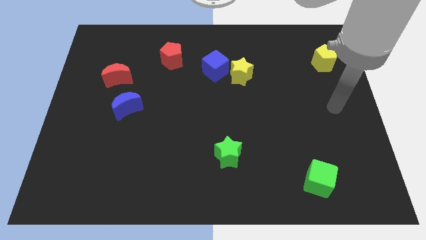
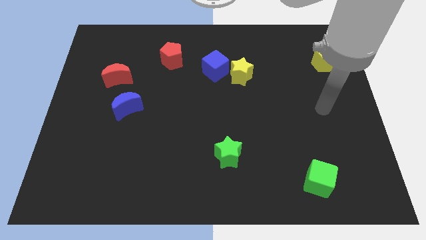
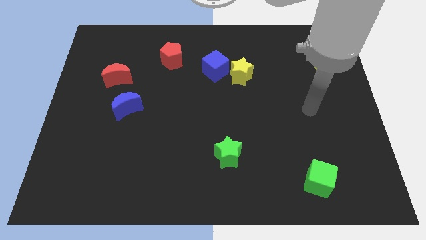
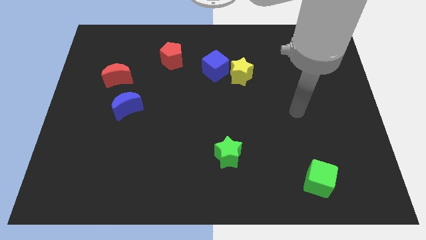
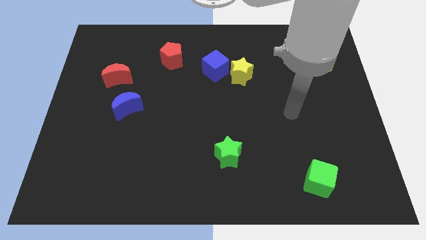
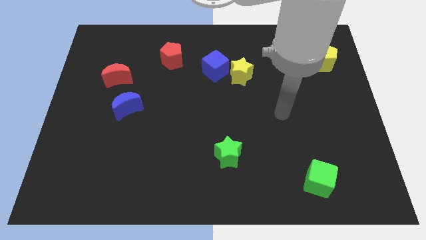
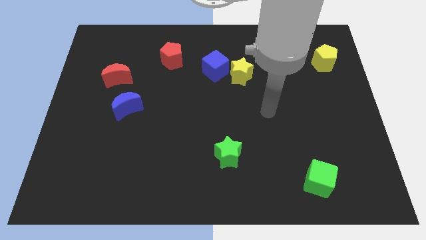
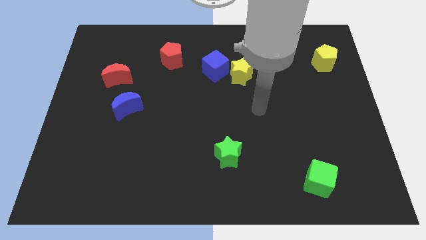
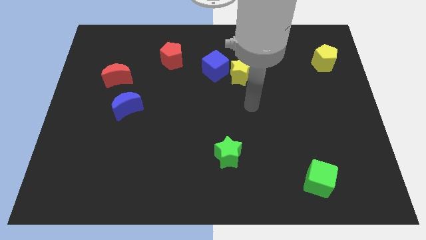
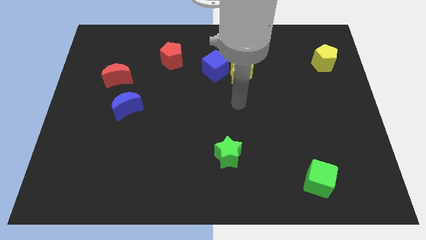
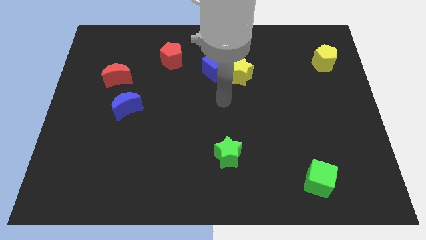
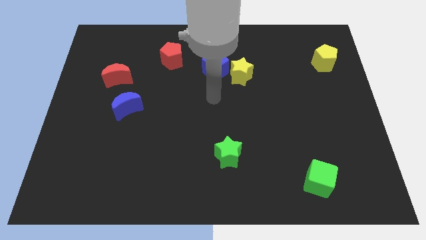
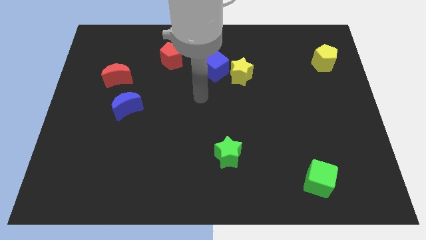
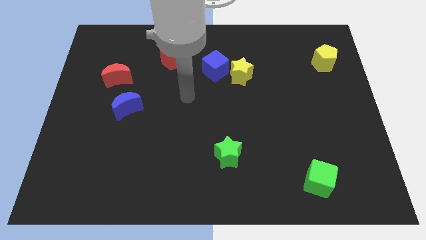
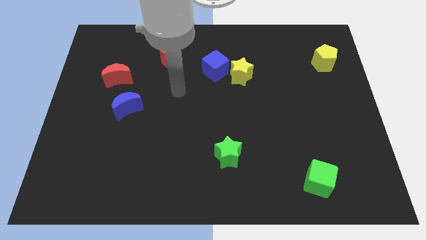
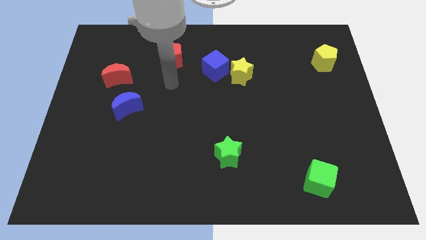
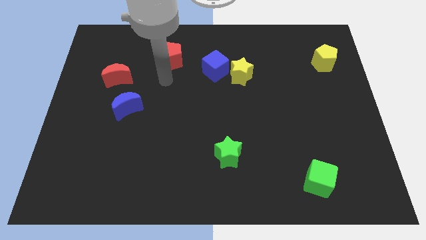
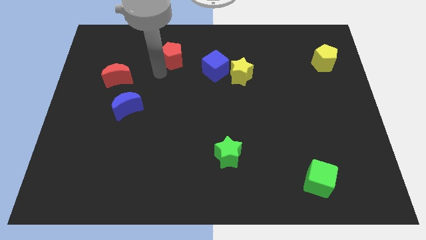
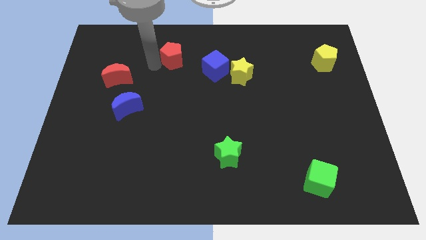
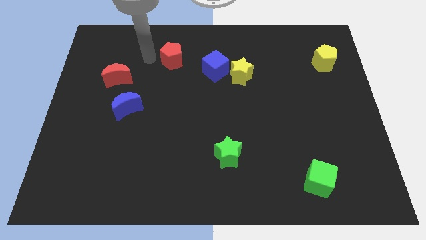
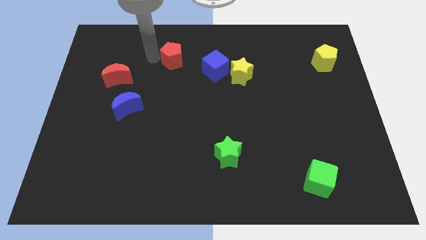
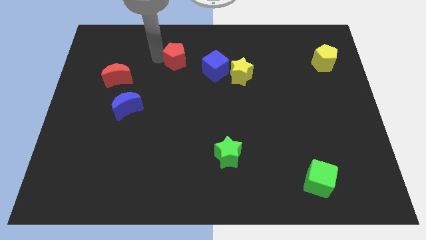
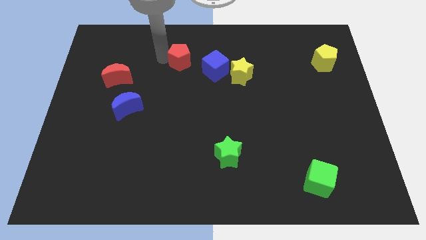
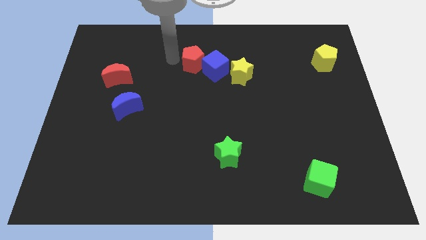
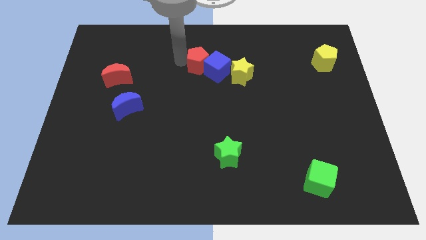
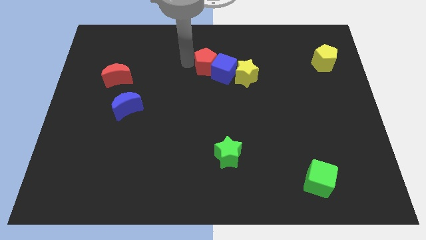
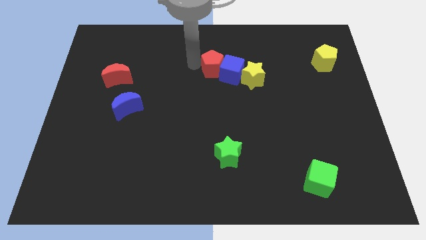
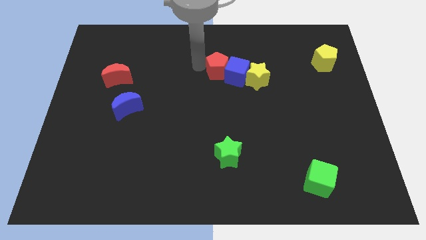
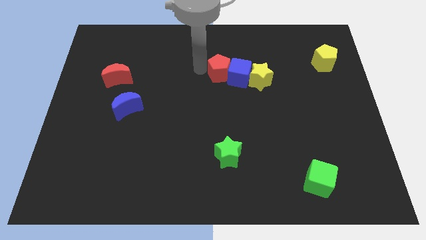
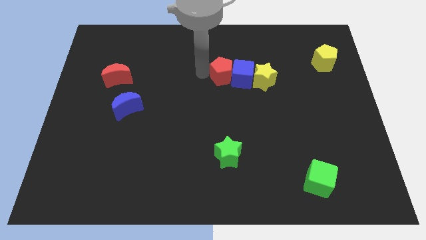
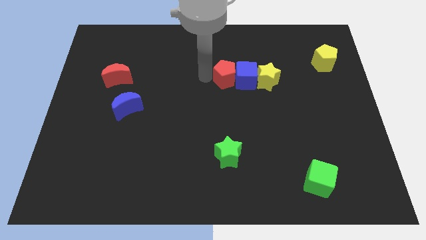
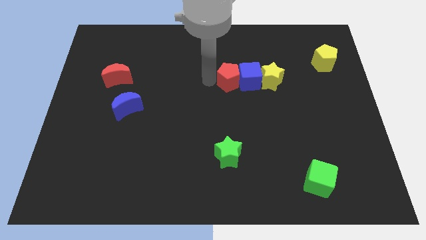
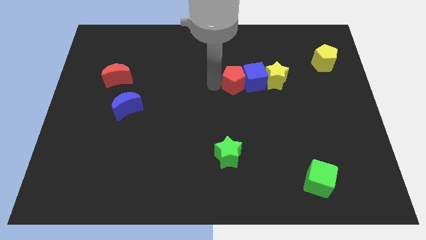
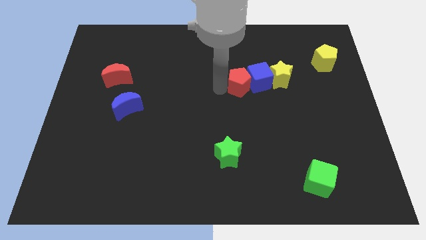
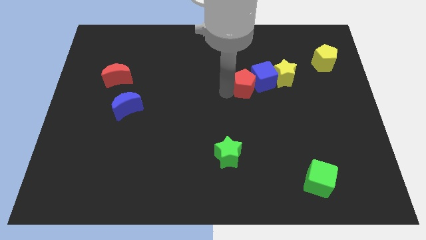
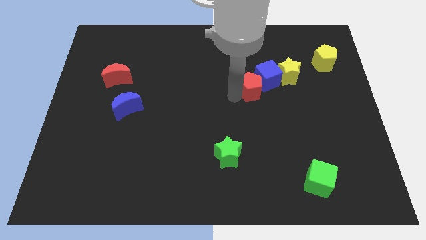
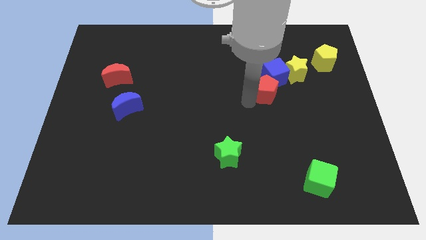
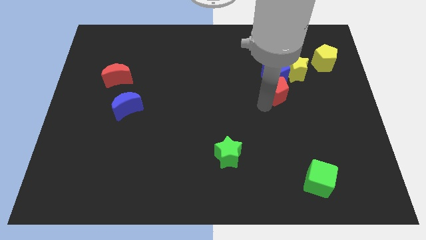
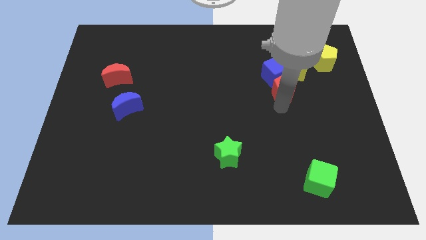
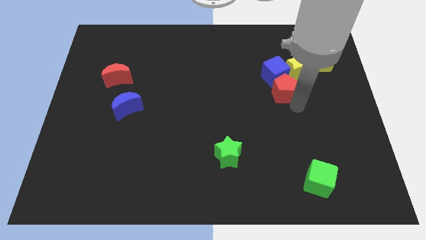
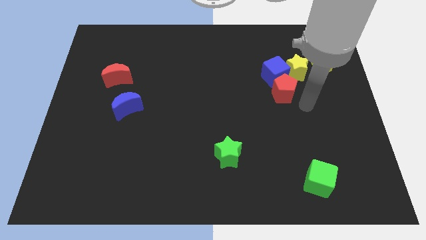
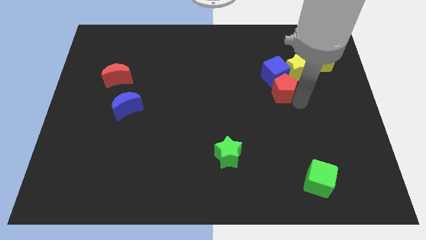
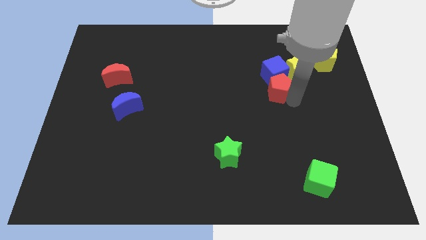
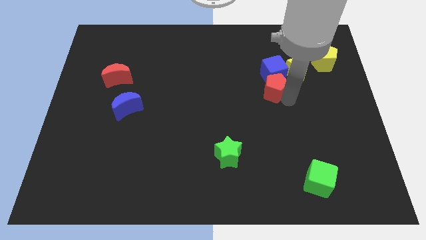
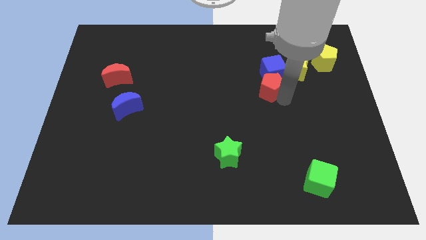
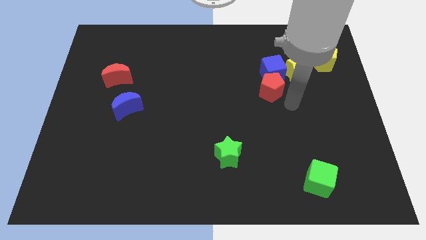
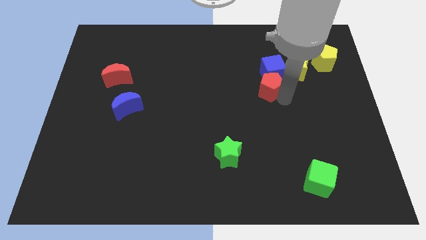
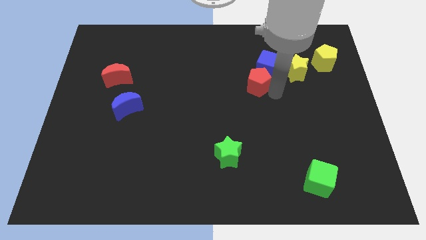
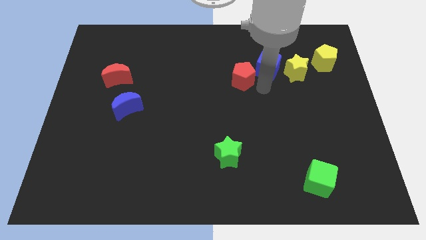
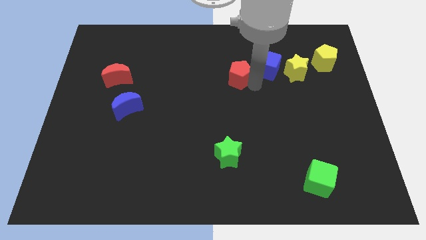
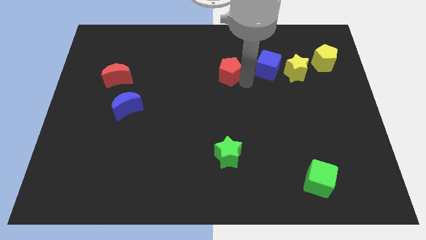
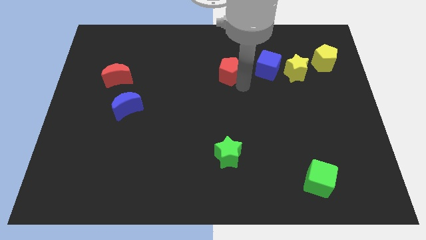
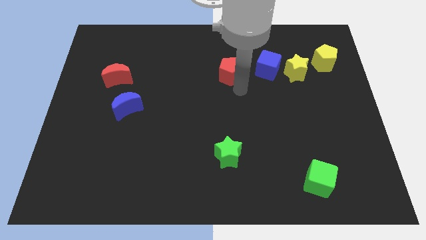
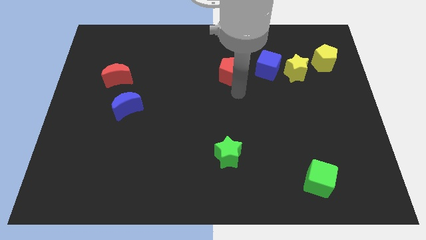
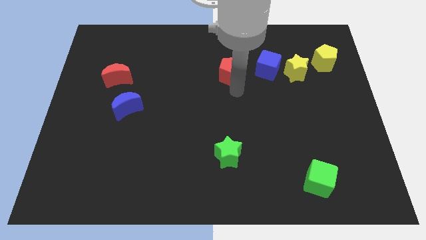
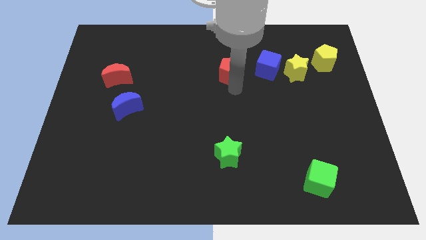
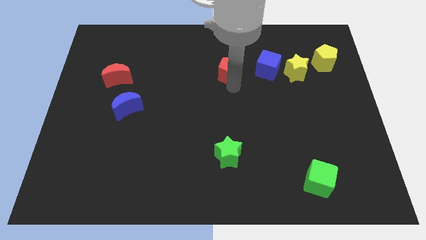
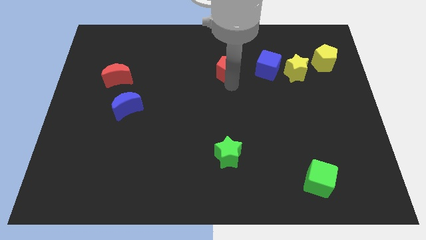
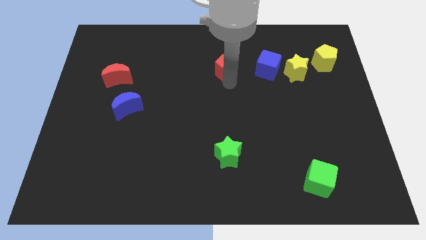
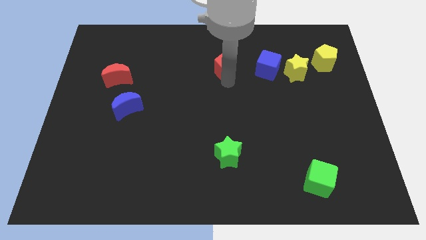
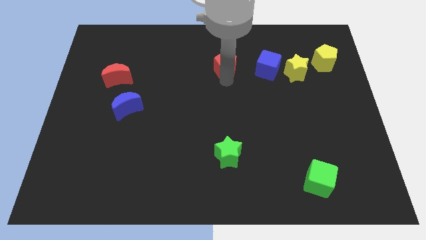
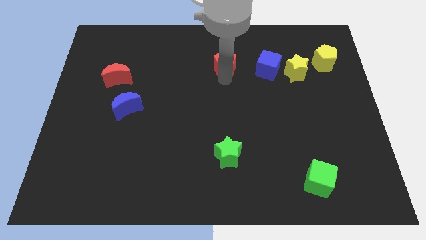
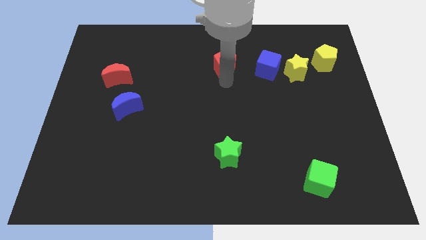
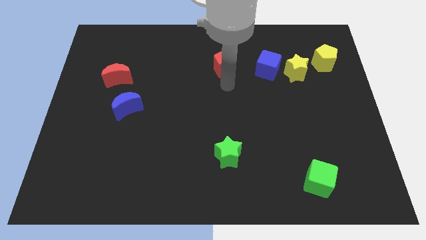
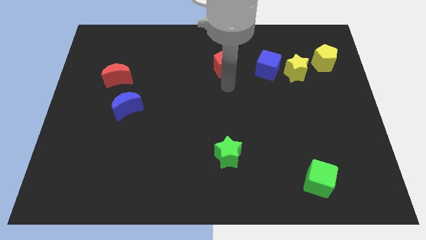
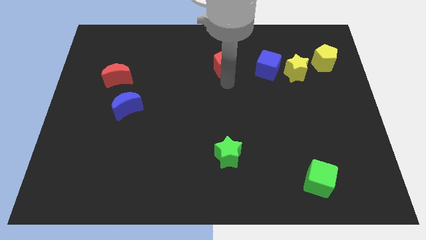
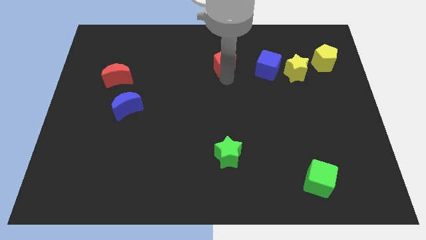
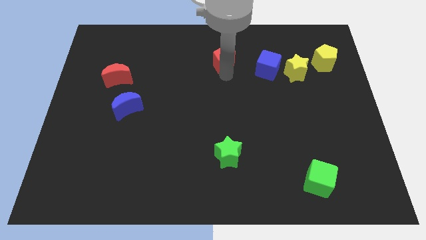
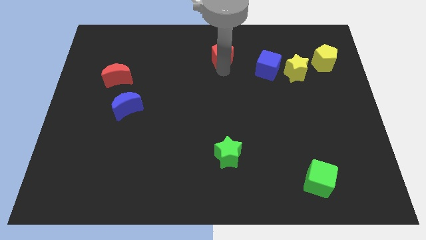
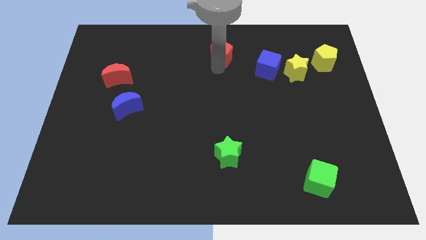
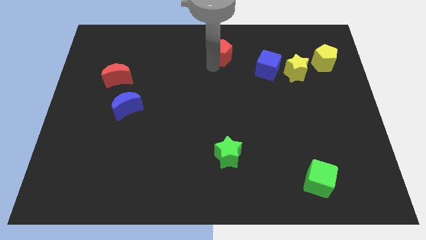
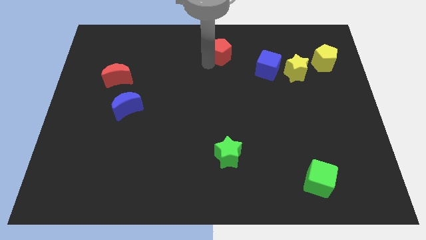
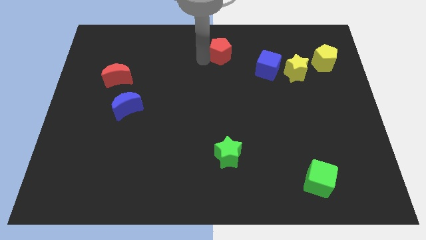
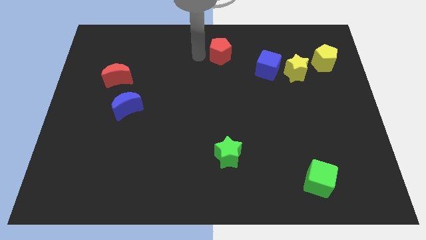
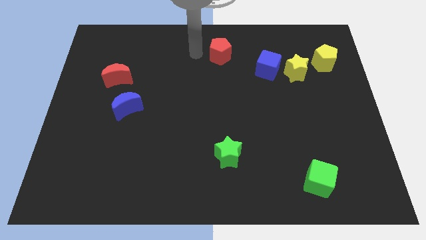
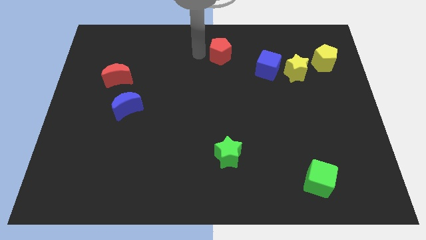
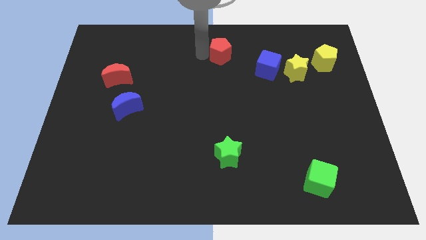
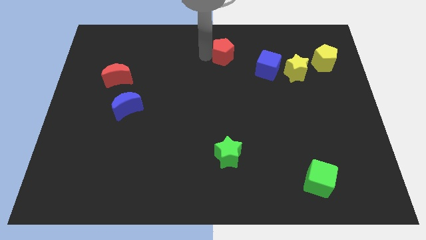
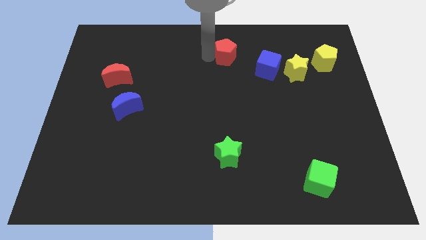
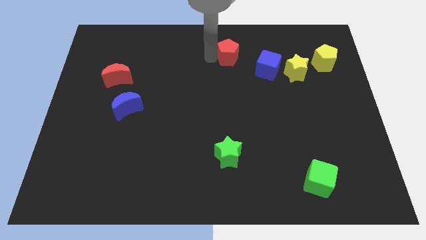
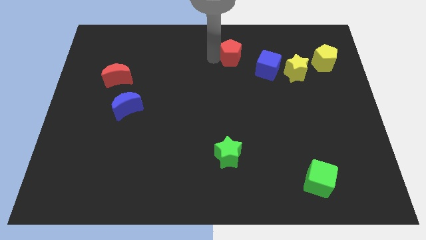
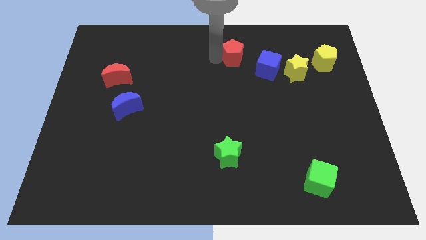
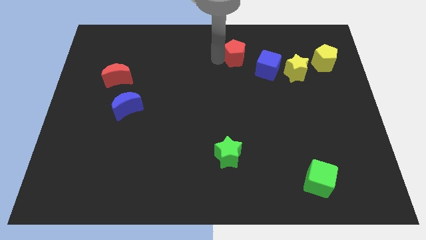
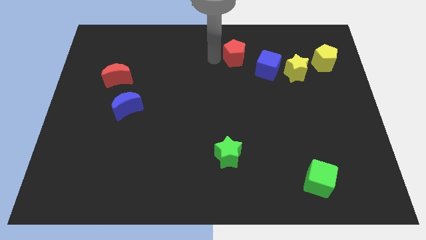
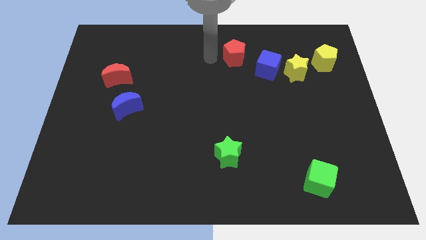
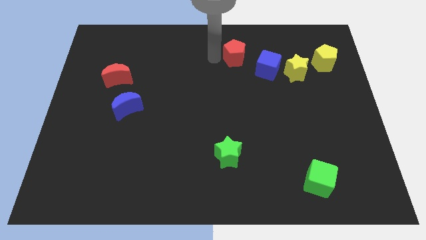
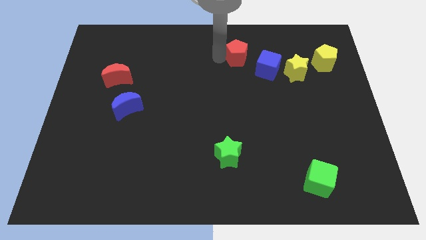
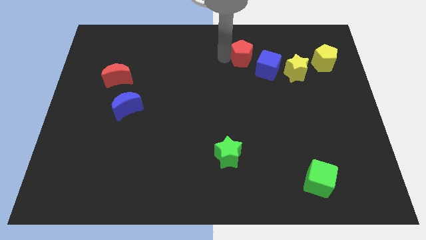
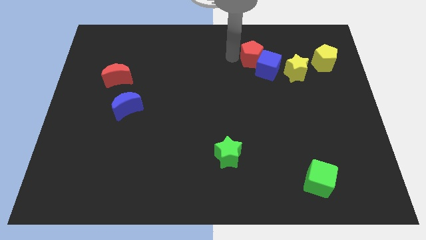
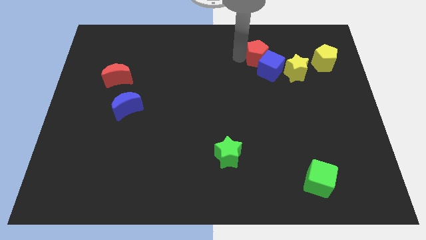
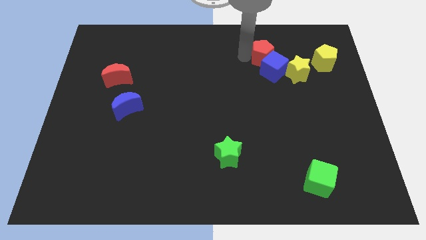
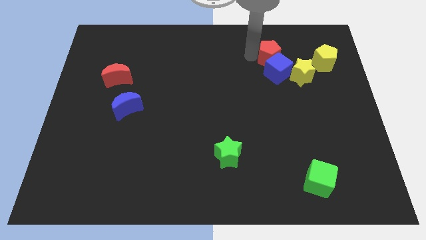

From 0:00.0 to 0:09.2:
slide the red pentagon to the left of the yellow pentagon
